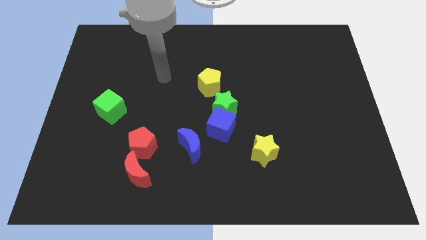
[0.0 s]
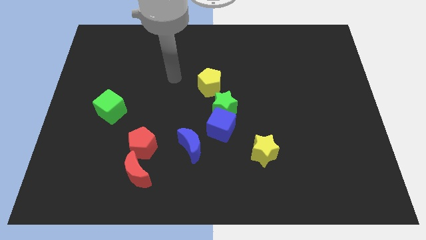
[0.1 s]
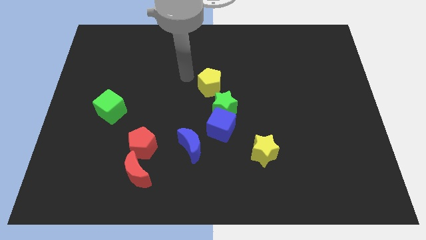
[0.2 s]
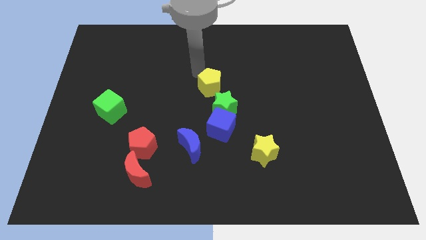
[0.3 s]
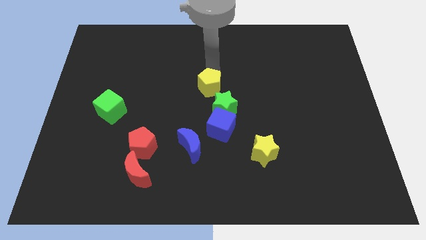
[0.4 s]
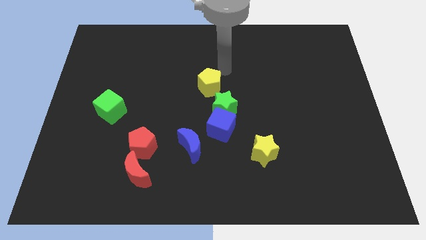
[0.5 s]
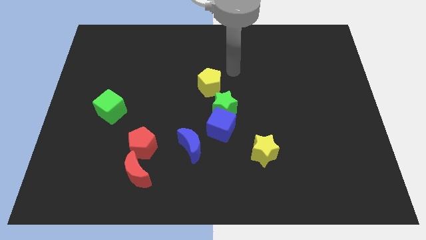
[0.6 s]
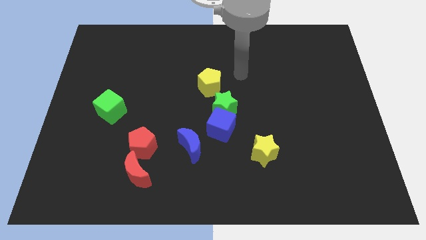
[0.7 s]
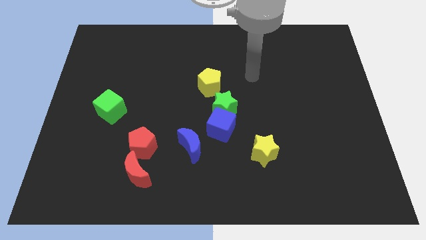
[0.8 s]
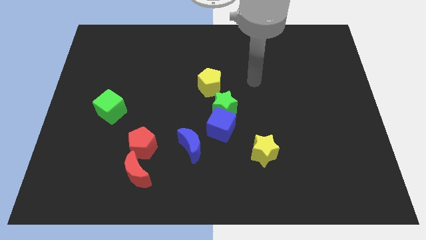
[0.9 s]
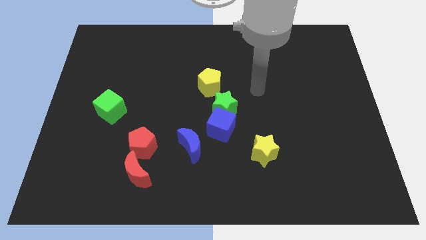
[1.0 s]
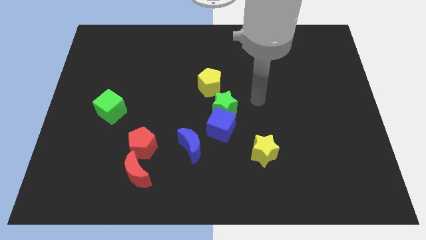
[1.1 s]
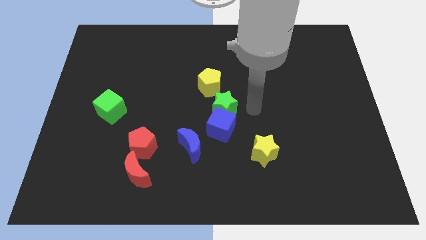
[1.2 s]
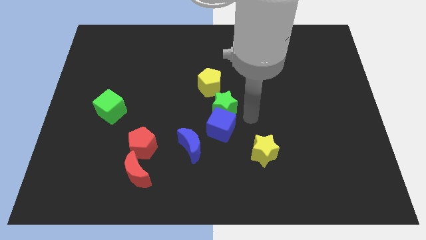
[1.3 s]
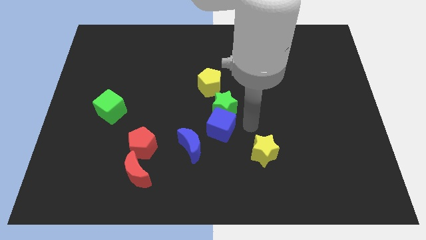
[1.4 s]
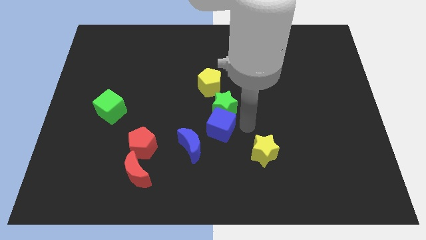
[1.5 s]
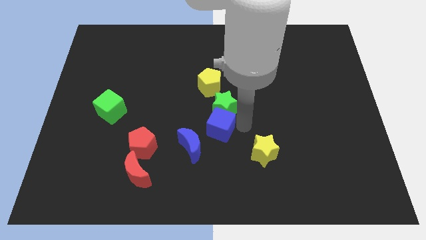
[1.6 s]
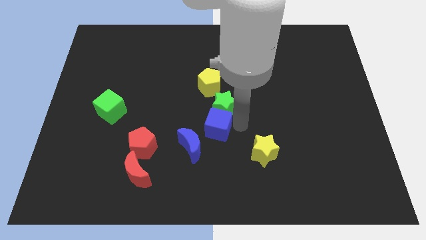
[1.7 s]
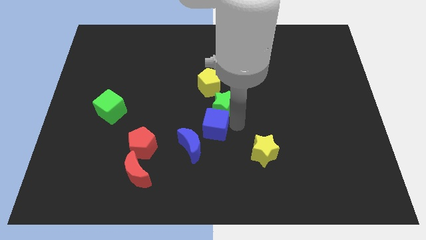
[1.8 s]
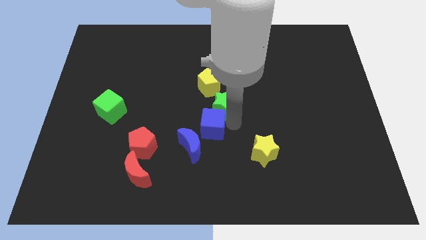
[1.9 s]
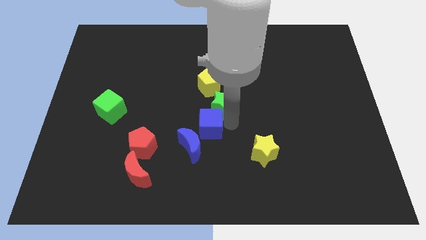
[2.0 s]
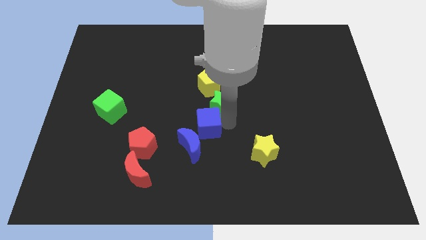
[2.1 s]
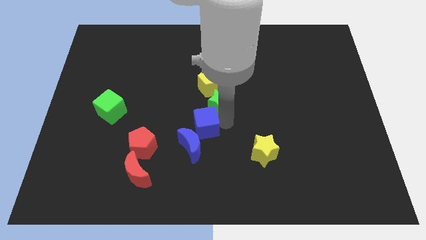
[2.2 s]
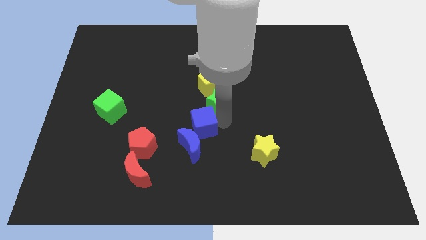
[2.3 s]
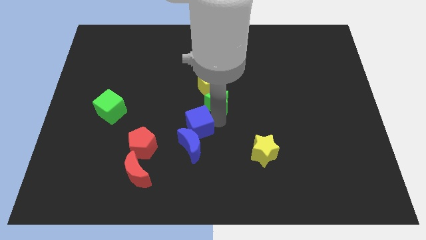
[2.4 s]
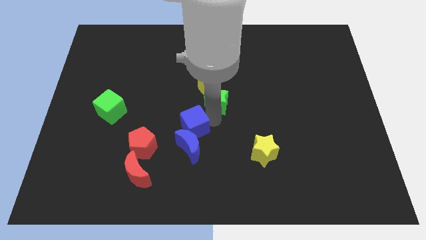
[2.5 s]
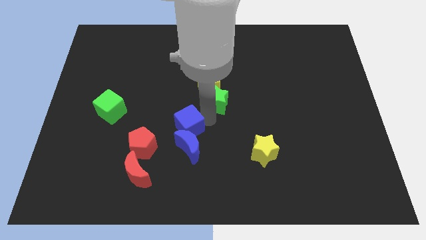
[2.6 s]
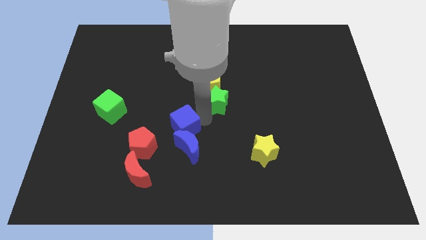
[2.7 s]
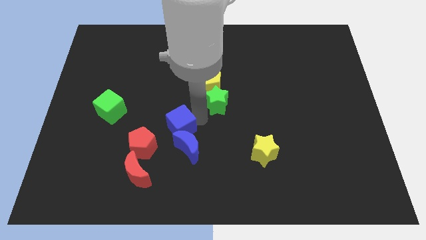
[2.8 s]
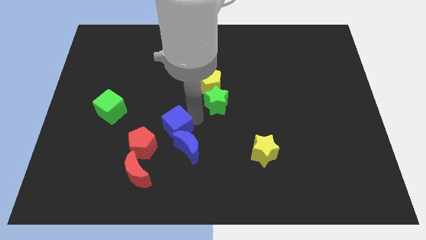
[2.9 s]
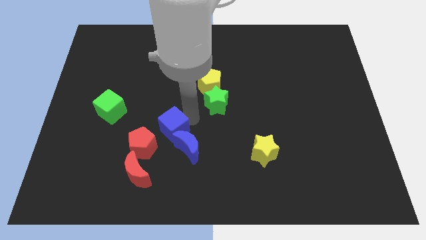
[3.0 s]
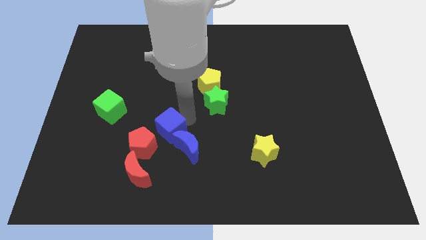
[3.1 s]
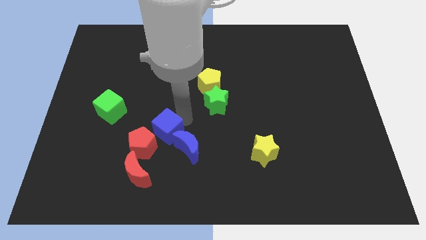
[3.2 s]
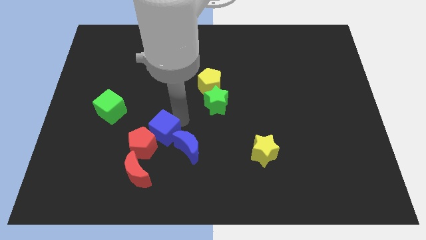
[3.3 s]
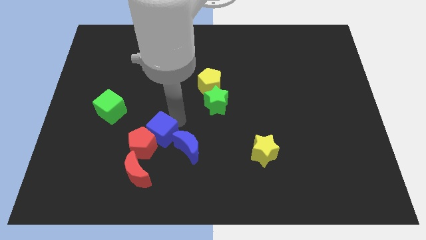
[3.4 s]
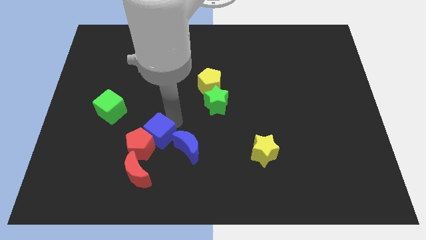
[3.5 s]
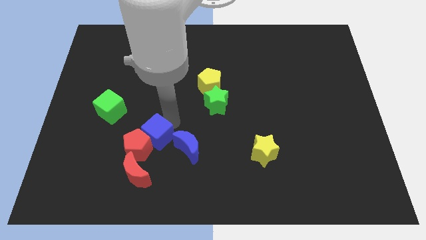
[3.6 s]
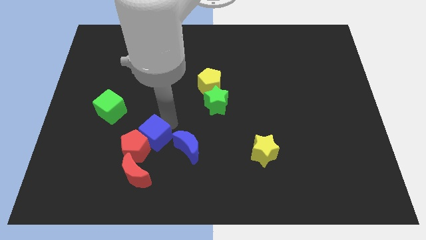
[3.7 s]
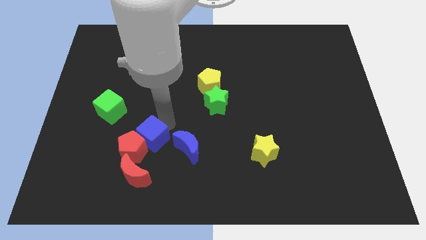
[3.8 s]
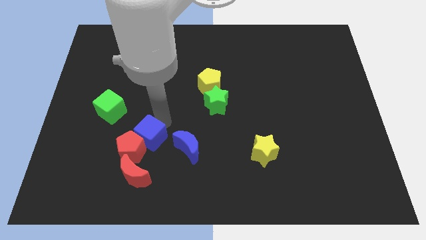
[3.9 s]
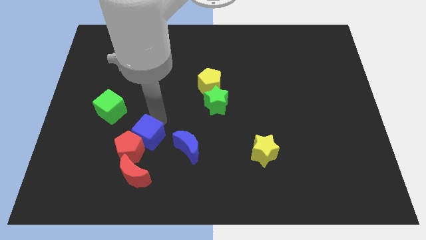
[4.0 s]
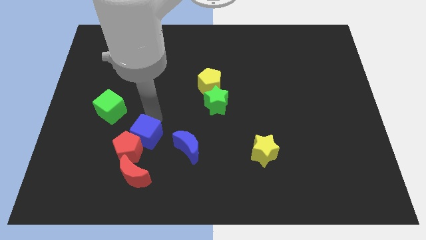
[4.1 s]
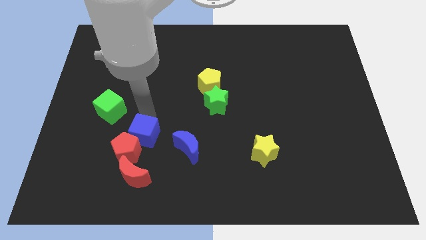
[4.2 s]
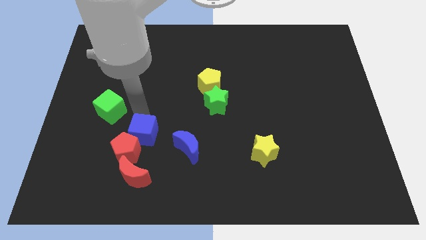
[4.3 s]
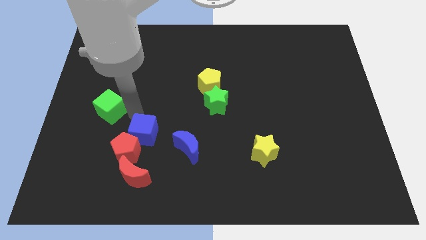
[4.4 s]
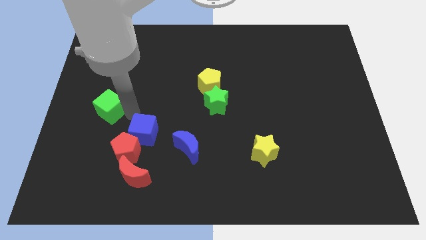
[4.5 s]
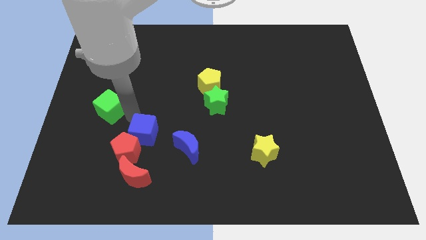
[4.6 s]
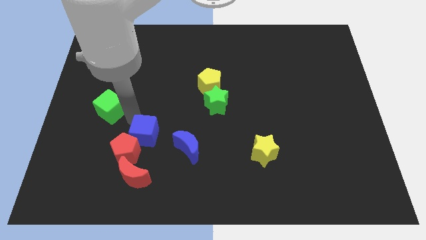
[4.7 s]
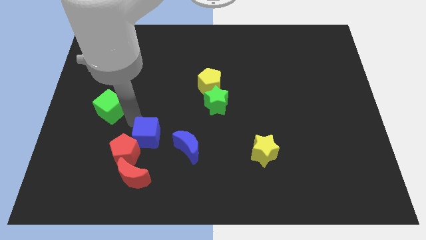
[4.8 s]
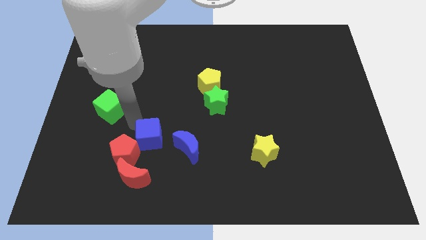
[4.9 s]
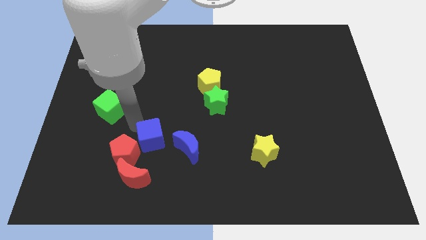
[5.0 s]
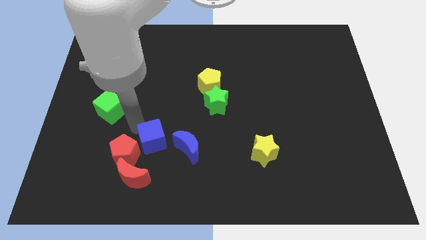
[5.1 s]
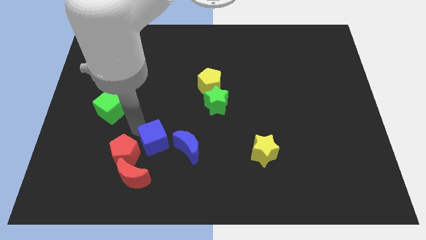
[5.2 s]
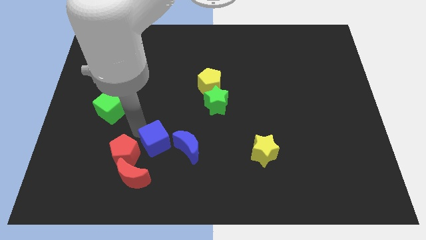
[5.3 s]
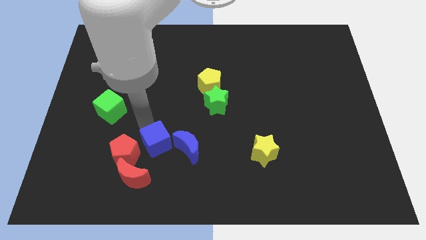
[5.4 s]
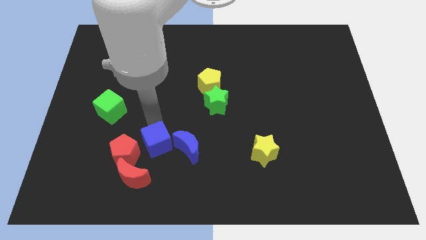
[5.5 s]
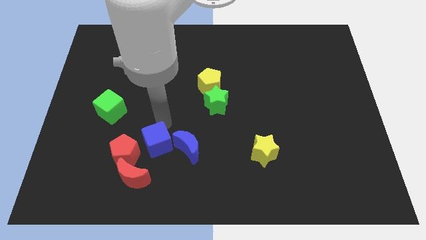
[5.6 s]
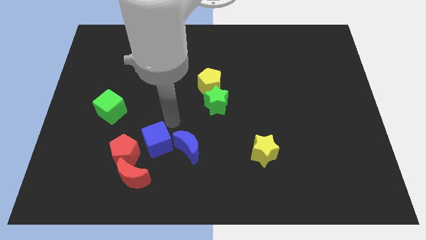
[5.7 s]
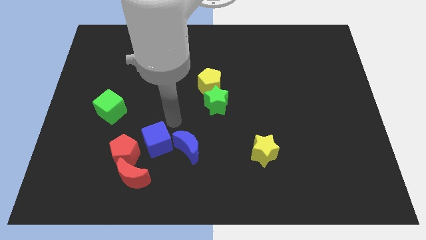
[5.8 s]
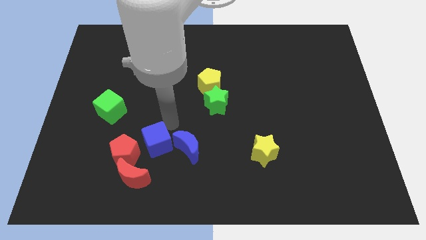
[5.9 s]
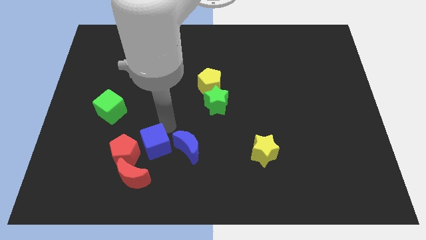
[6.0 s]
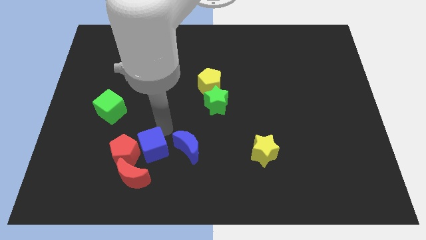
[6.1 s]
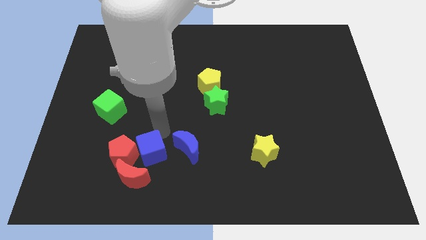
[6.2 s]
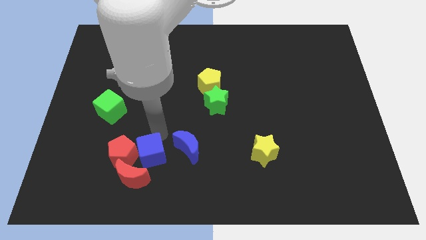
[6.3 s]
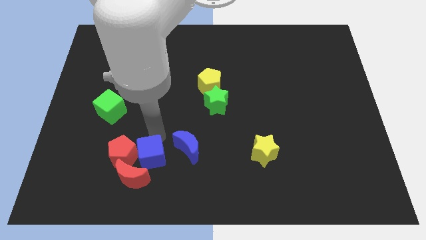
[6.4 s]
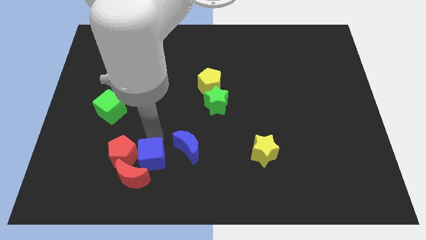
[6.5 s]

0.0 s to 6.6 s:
slide the blue cube next to the red moon

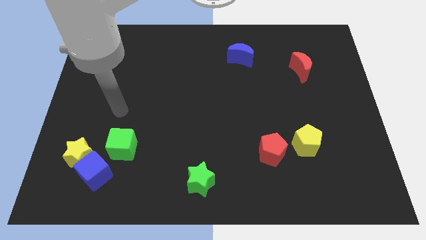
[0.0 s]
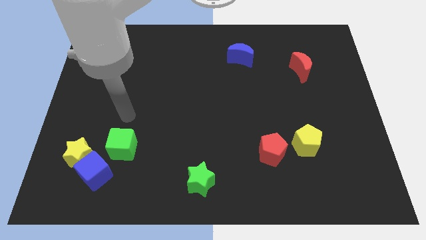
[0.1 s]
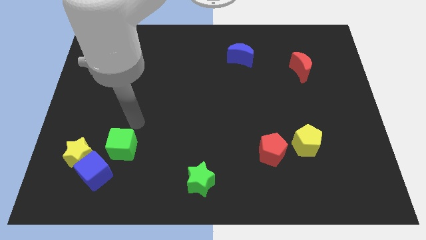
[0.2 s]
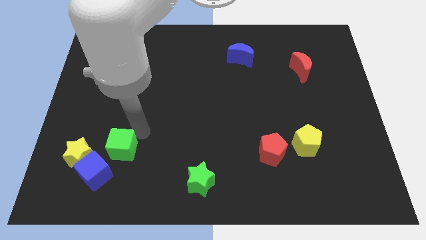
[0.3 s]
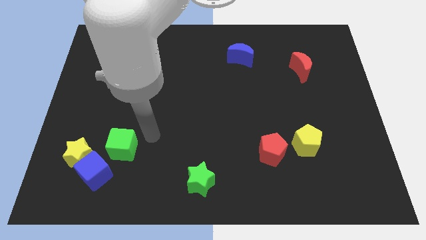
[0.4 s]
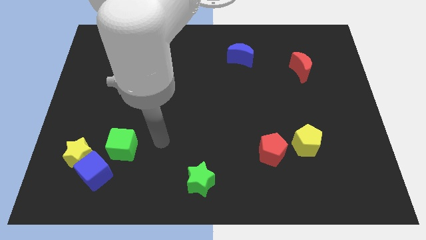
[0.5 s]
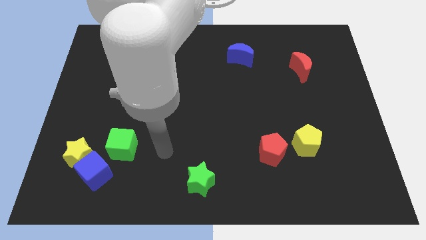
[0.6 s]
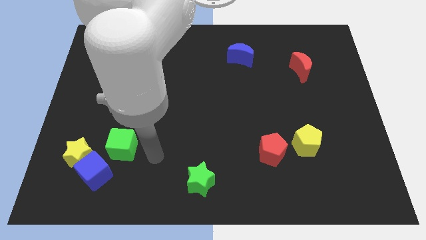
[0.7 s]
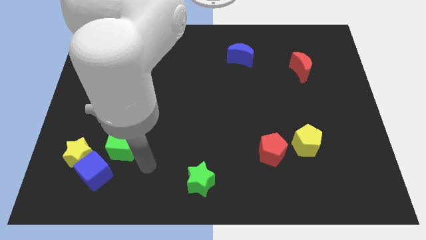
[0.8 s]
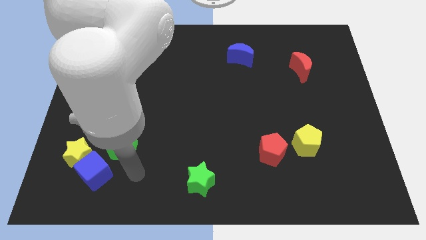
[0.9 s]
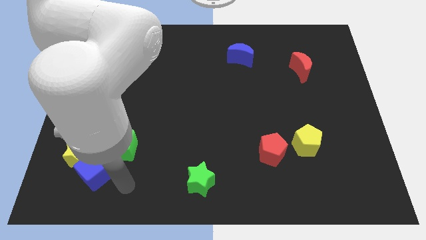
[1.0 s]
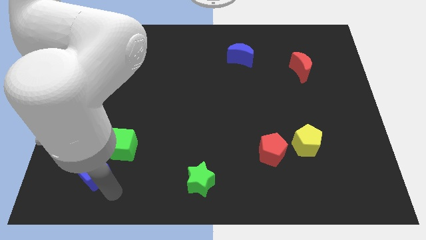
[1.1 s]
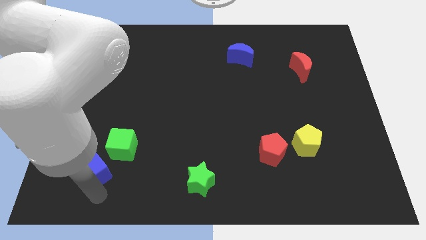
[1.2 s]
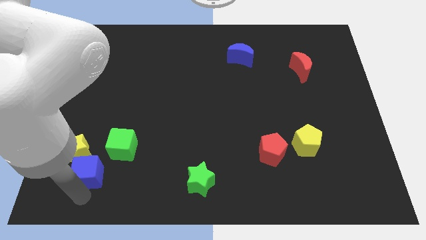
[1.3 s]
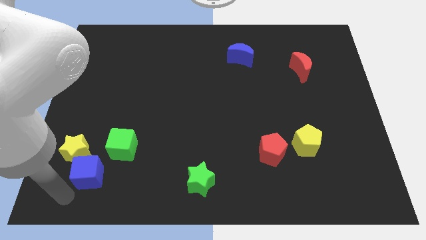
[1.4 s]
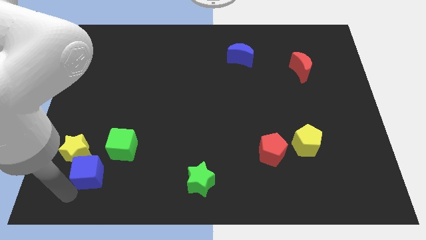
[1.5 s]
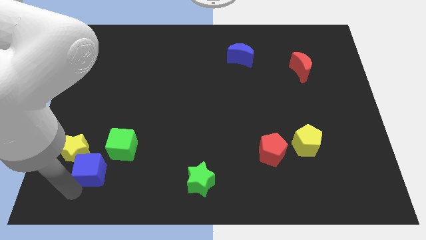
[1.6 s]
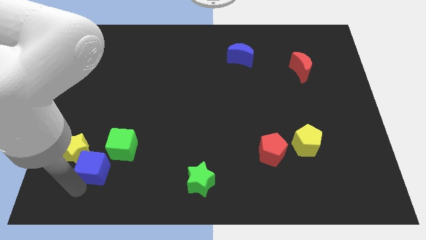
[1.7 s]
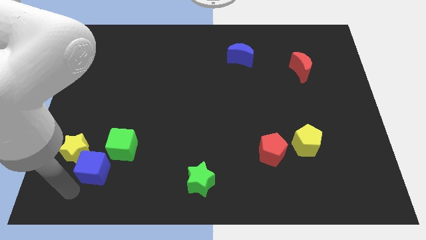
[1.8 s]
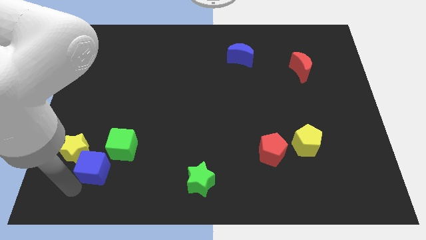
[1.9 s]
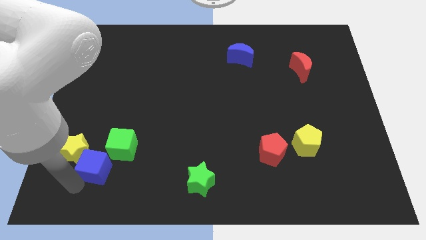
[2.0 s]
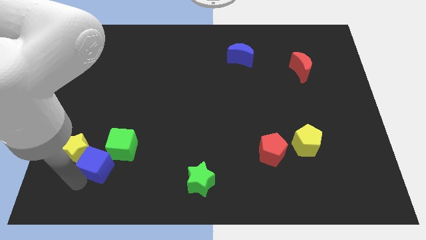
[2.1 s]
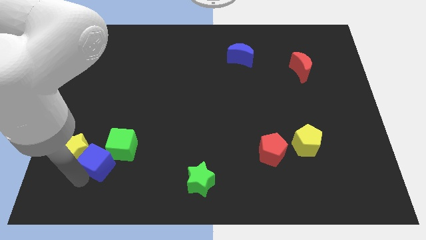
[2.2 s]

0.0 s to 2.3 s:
move the blue cube to the green cube
